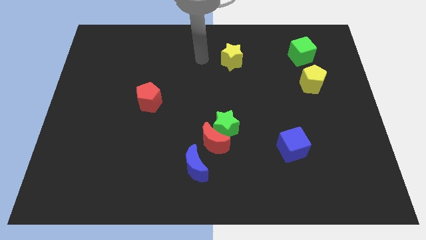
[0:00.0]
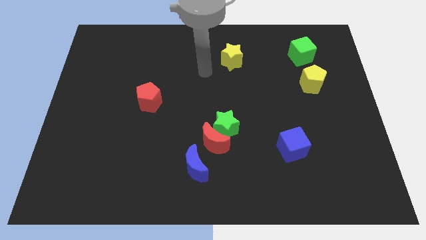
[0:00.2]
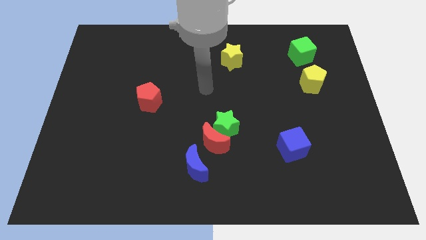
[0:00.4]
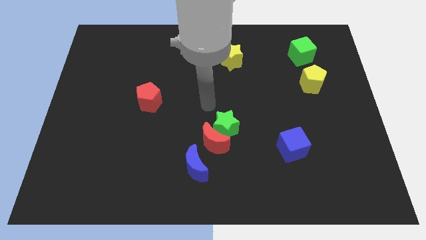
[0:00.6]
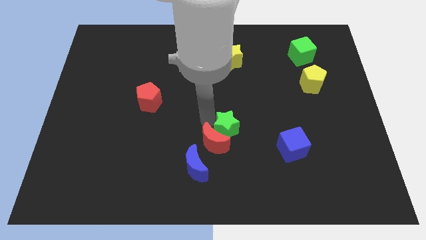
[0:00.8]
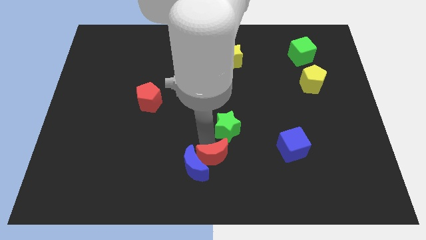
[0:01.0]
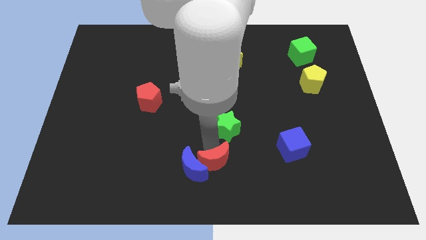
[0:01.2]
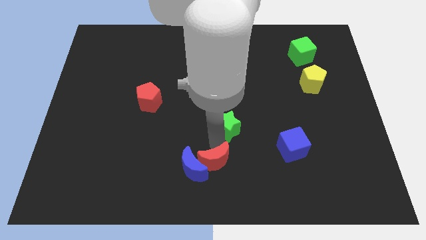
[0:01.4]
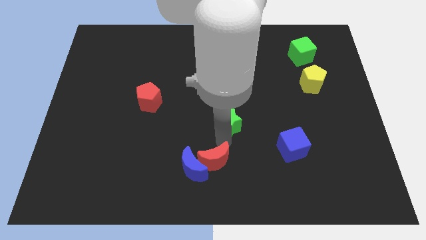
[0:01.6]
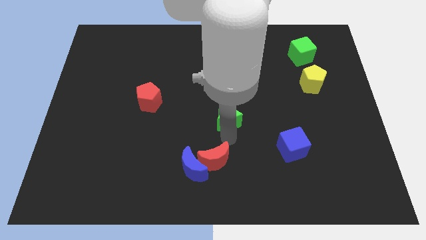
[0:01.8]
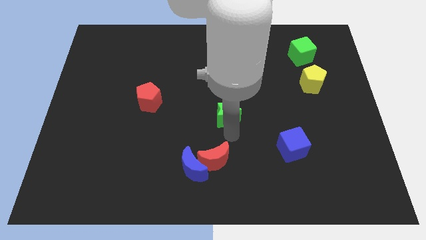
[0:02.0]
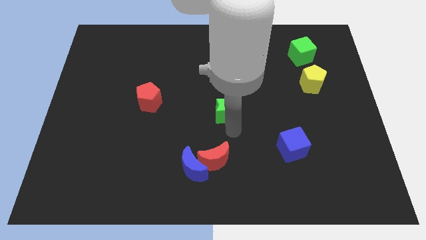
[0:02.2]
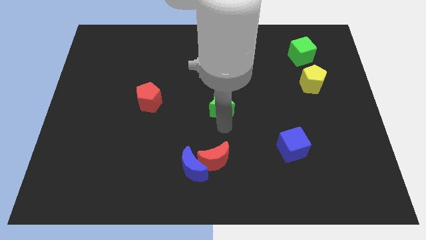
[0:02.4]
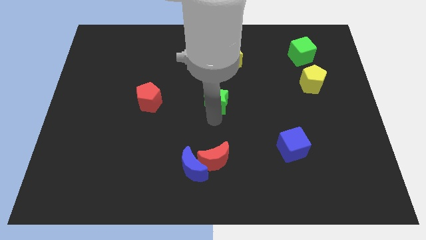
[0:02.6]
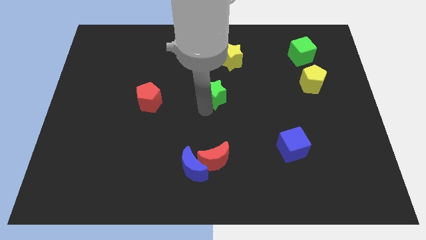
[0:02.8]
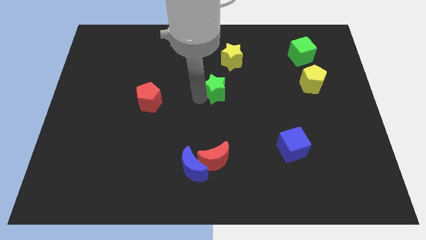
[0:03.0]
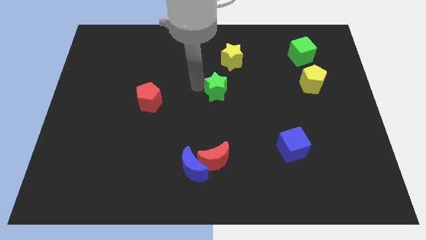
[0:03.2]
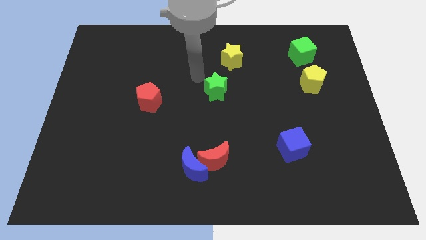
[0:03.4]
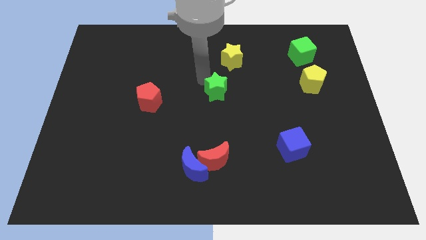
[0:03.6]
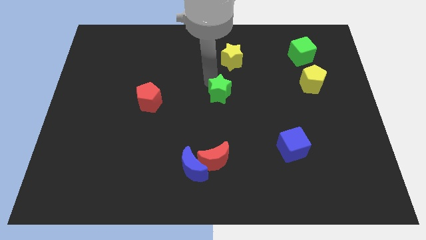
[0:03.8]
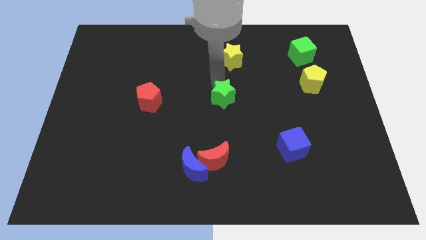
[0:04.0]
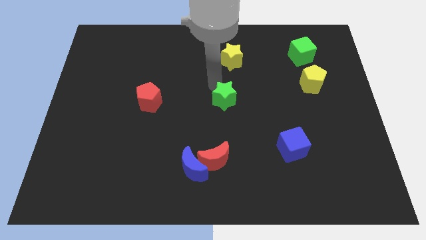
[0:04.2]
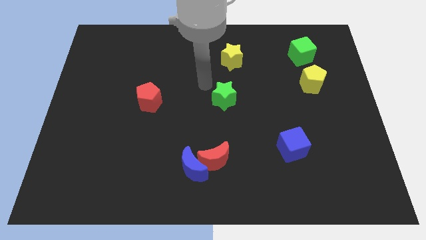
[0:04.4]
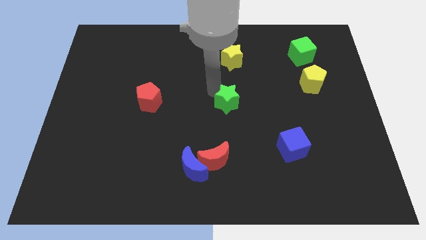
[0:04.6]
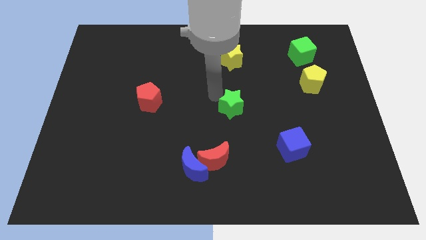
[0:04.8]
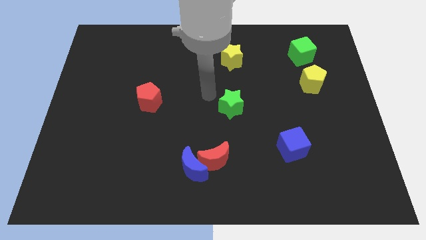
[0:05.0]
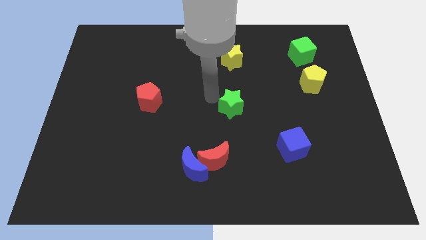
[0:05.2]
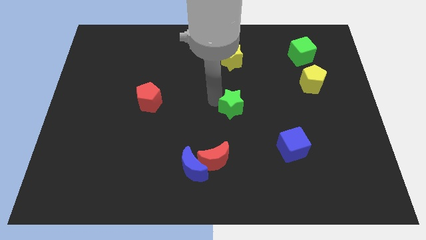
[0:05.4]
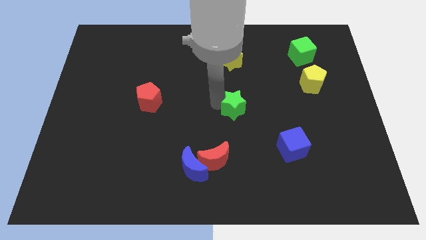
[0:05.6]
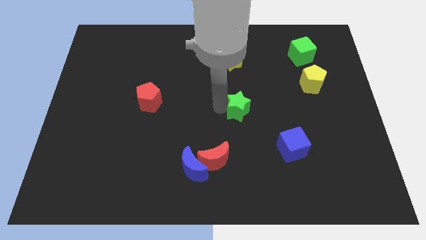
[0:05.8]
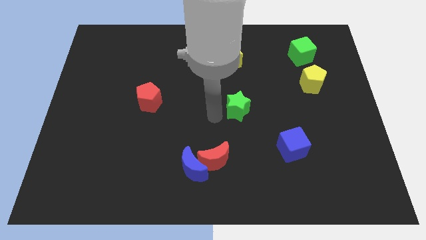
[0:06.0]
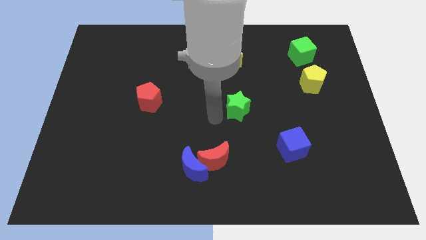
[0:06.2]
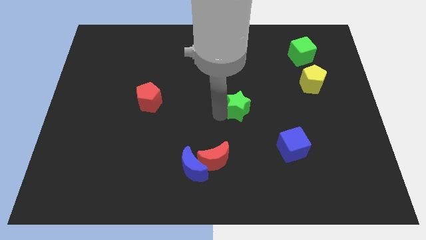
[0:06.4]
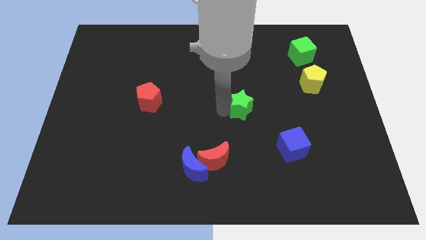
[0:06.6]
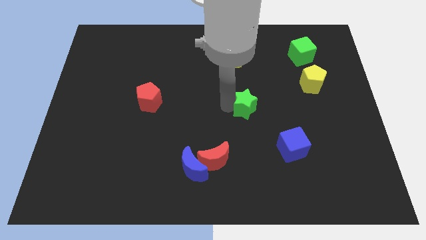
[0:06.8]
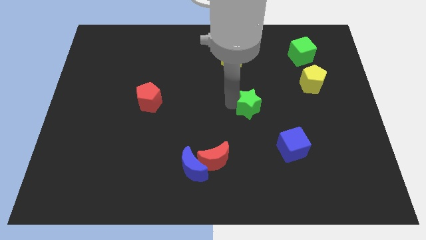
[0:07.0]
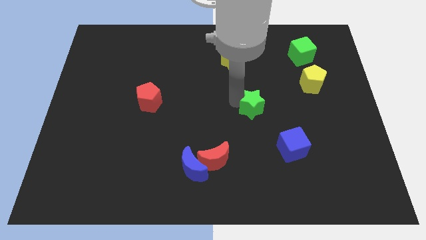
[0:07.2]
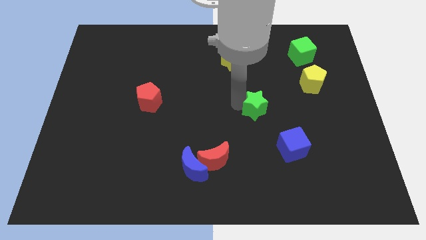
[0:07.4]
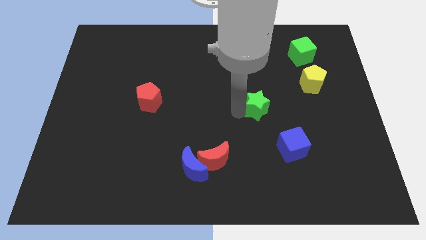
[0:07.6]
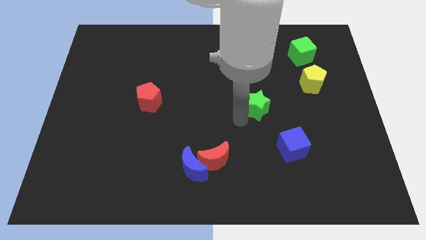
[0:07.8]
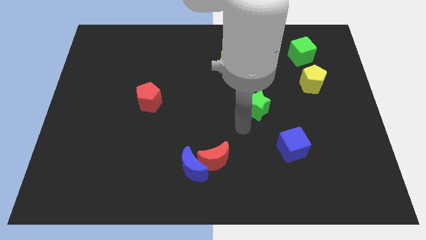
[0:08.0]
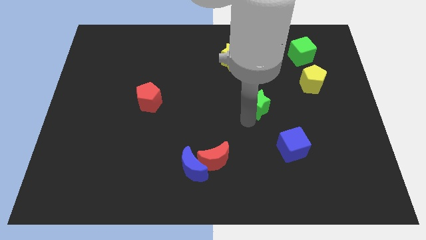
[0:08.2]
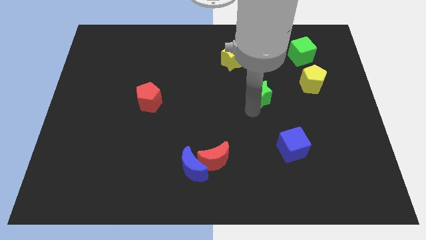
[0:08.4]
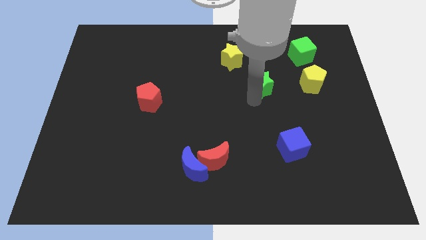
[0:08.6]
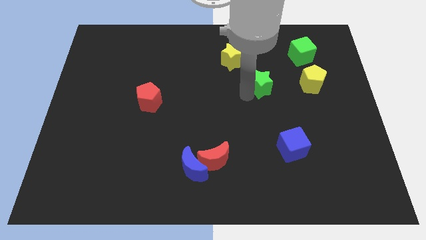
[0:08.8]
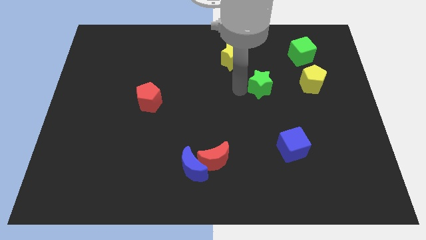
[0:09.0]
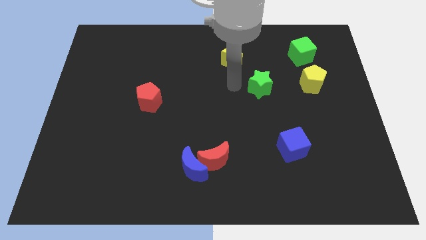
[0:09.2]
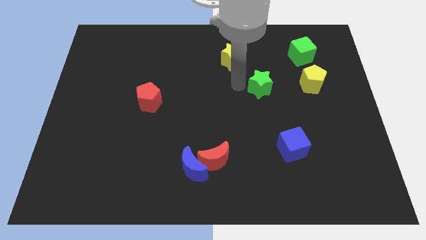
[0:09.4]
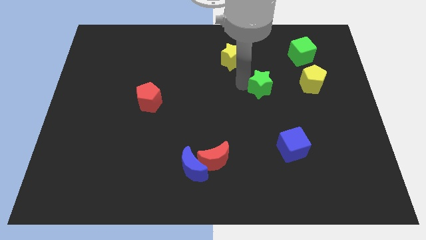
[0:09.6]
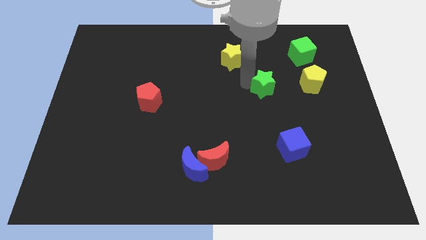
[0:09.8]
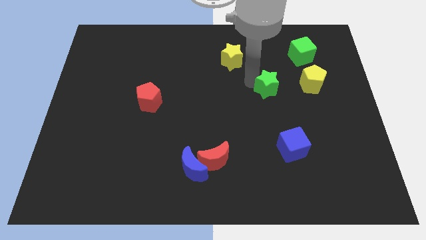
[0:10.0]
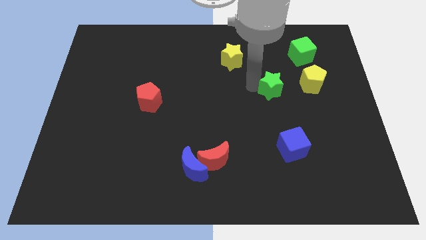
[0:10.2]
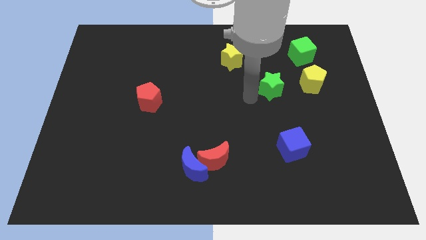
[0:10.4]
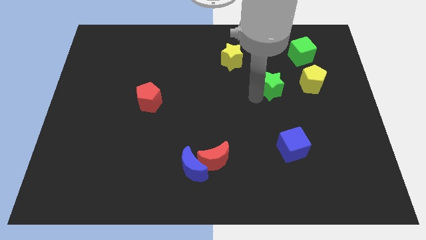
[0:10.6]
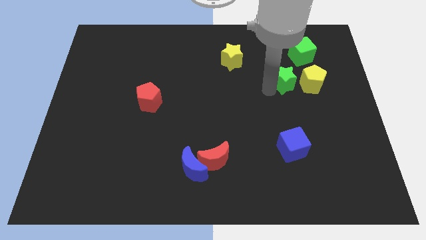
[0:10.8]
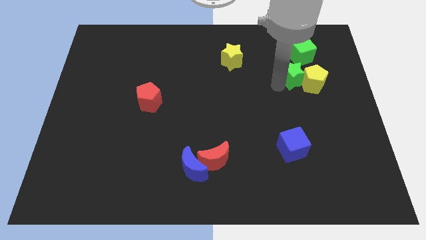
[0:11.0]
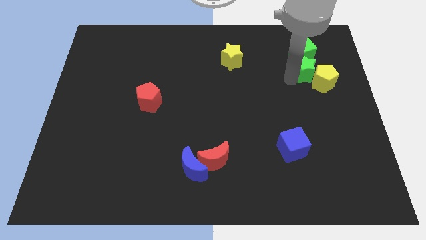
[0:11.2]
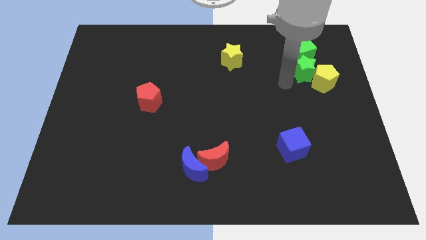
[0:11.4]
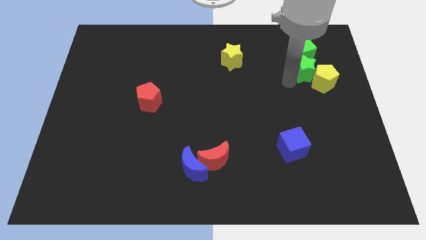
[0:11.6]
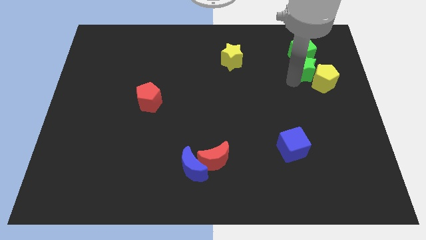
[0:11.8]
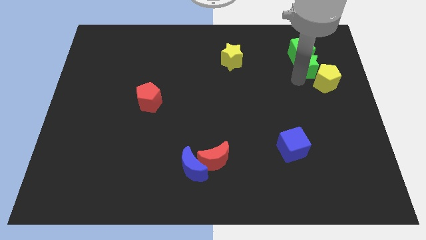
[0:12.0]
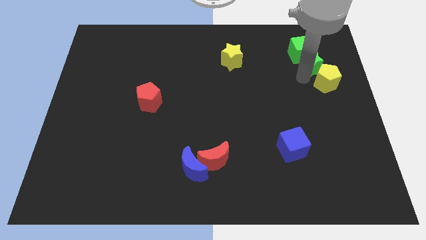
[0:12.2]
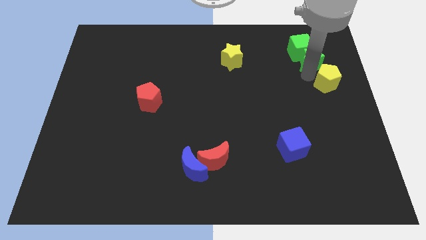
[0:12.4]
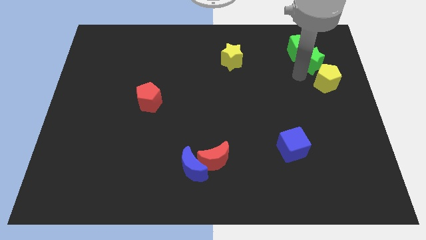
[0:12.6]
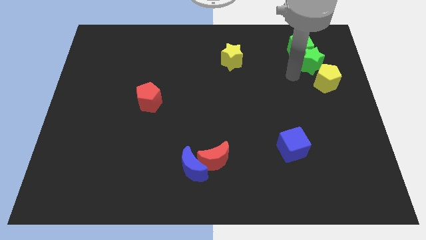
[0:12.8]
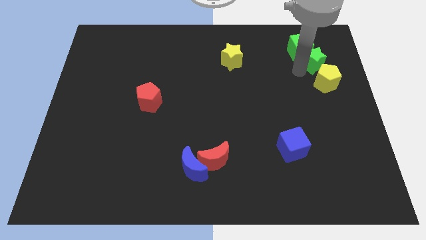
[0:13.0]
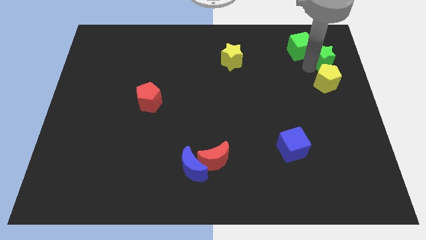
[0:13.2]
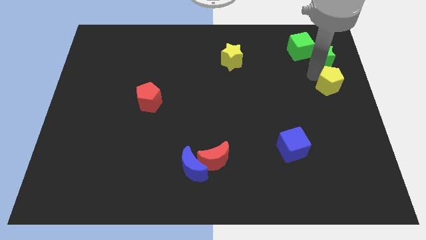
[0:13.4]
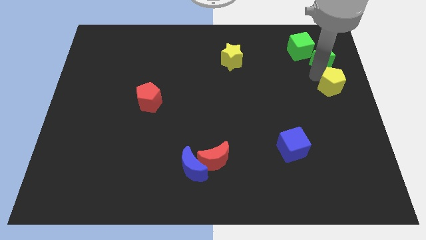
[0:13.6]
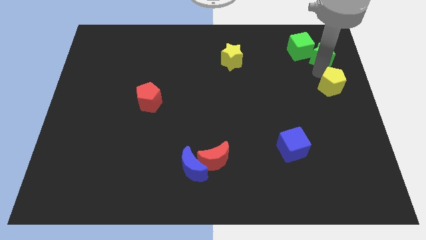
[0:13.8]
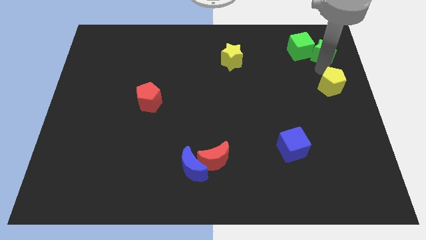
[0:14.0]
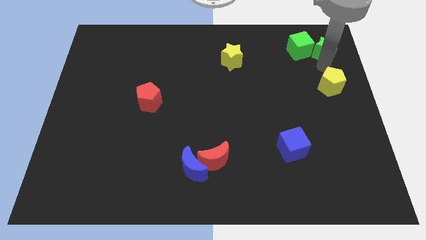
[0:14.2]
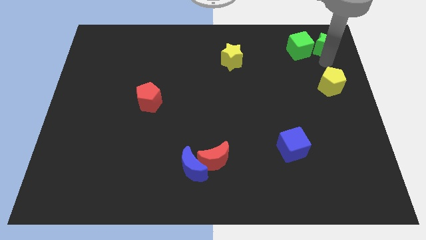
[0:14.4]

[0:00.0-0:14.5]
push the green star to the upper right corner
